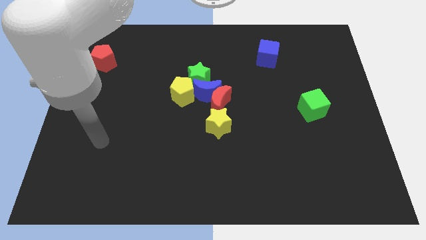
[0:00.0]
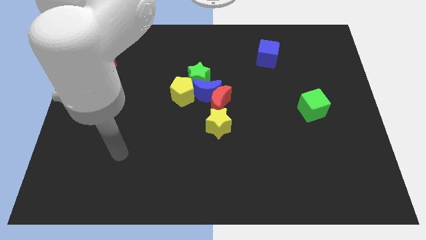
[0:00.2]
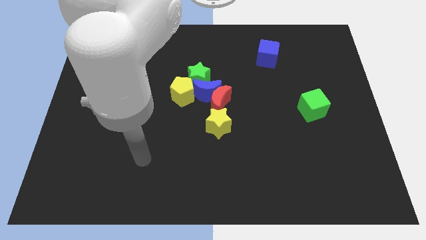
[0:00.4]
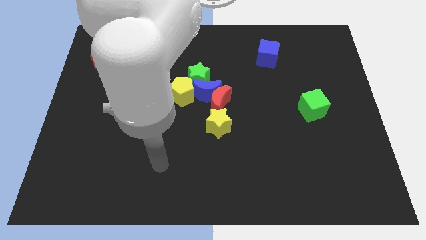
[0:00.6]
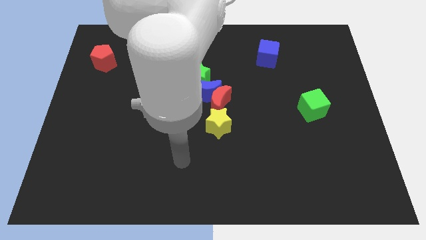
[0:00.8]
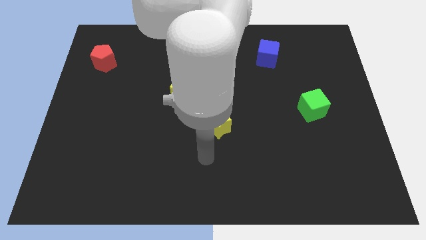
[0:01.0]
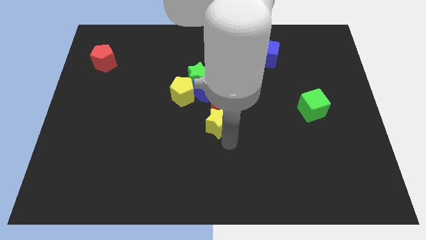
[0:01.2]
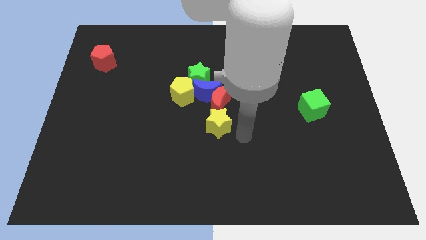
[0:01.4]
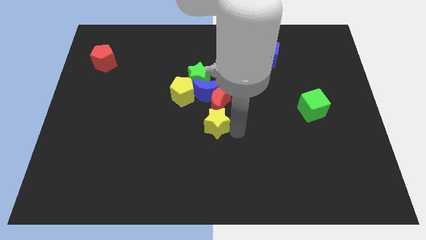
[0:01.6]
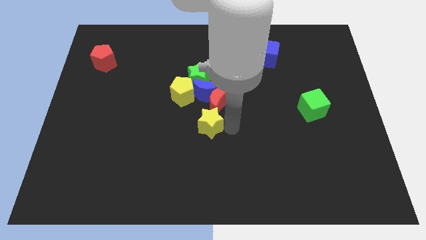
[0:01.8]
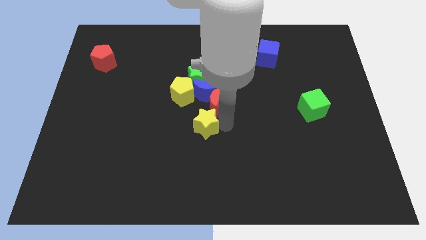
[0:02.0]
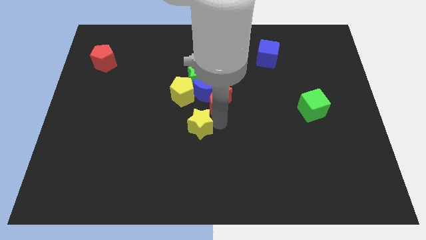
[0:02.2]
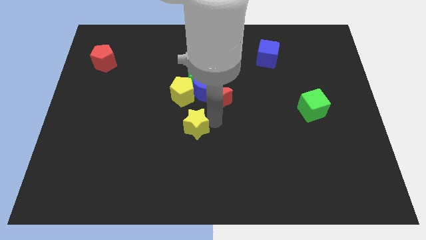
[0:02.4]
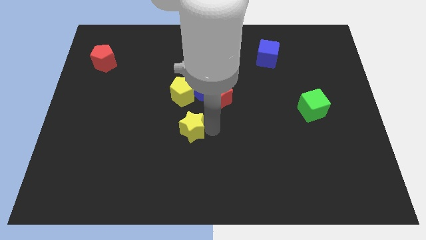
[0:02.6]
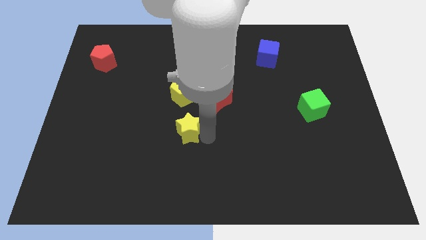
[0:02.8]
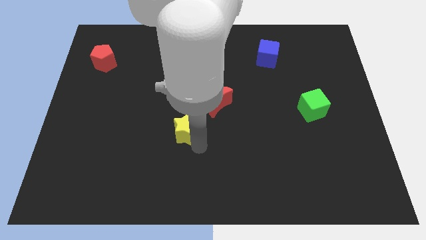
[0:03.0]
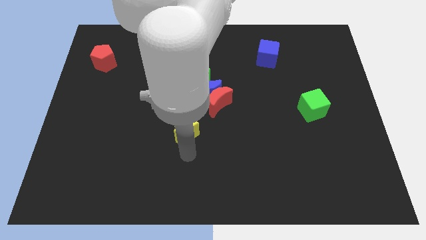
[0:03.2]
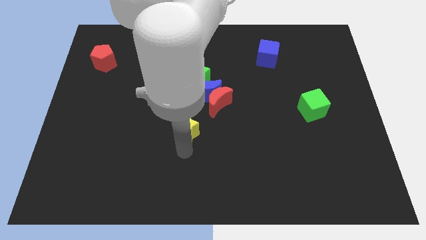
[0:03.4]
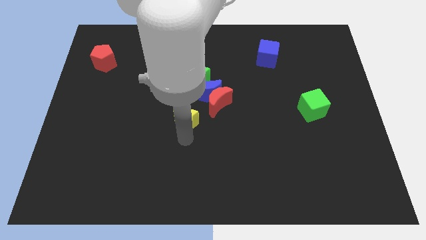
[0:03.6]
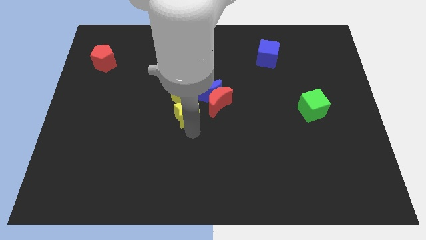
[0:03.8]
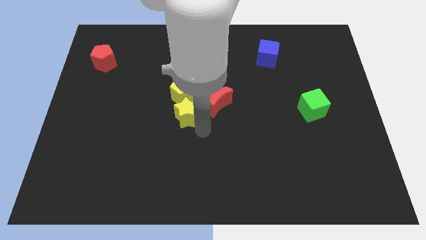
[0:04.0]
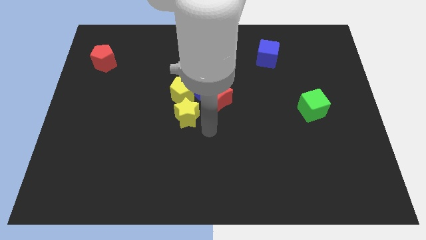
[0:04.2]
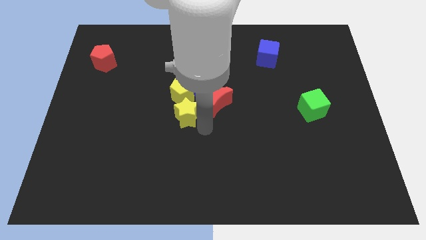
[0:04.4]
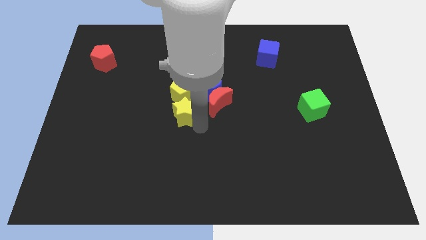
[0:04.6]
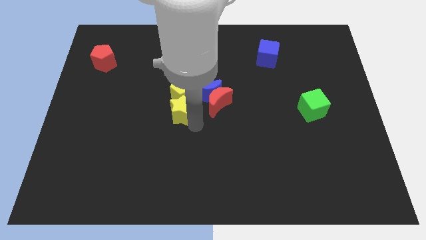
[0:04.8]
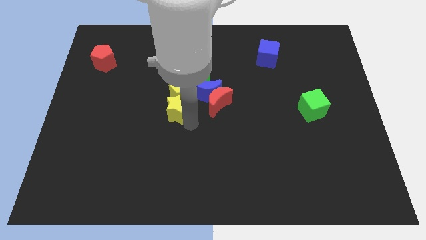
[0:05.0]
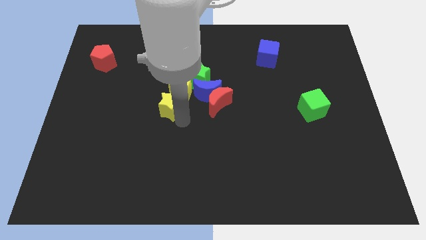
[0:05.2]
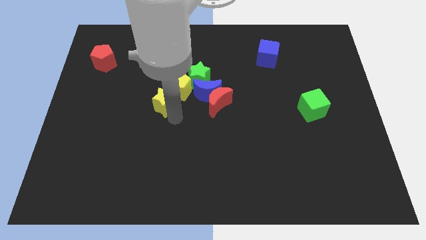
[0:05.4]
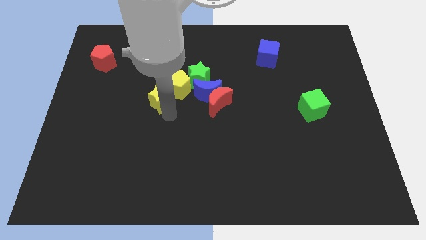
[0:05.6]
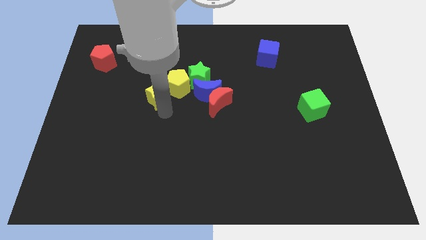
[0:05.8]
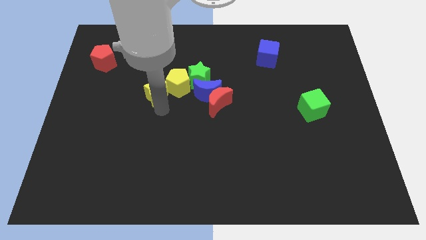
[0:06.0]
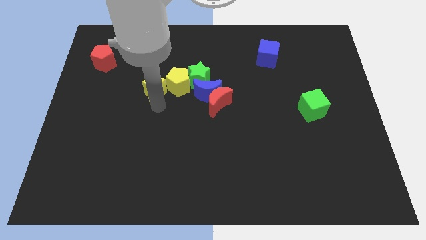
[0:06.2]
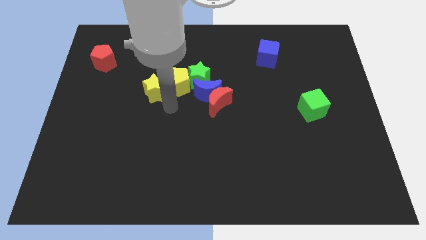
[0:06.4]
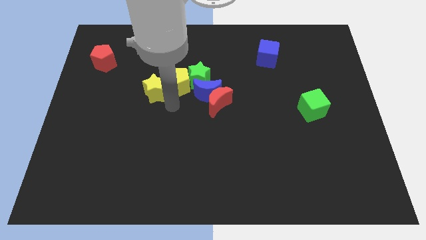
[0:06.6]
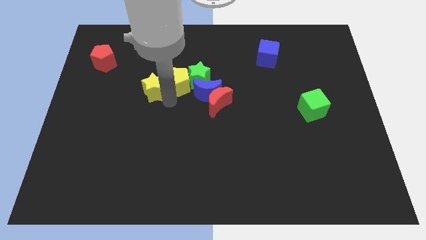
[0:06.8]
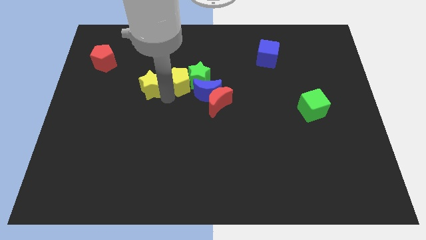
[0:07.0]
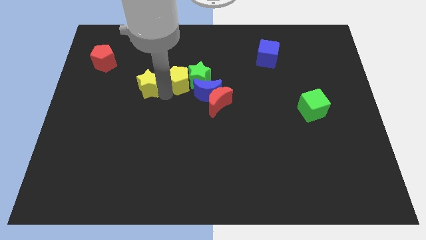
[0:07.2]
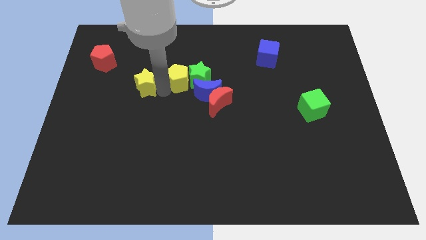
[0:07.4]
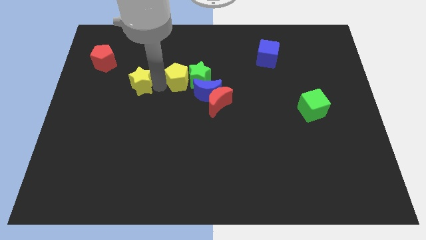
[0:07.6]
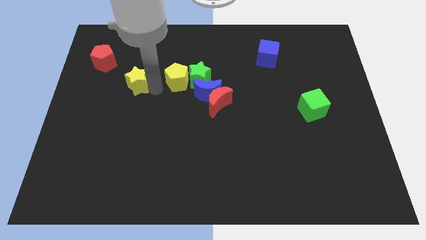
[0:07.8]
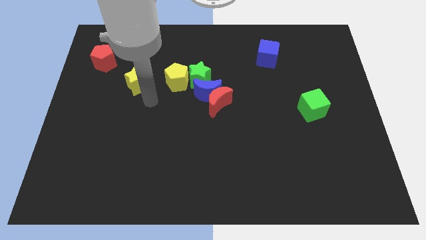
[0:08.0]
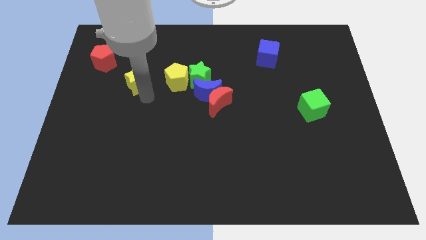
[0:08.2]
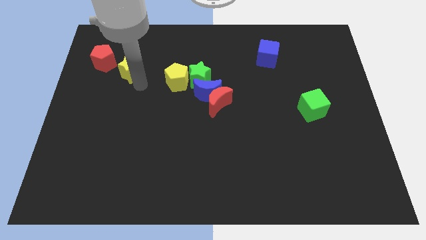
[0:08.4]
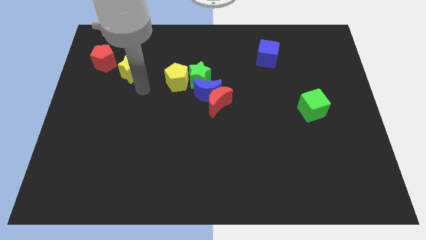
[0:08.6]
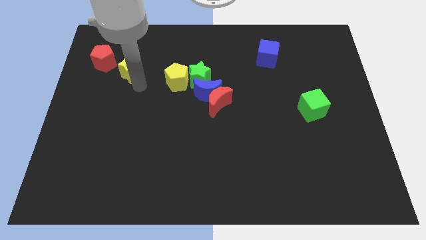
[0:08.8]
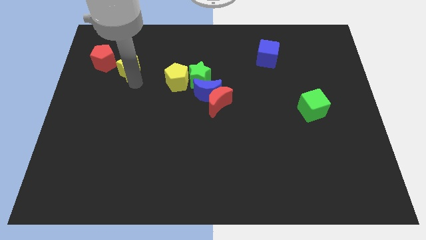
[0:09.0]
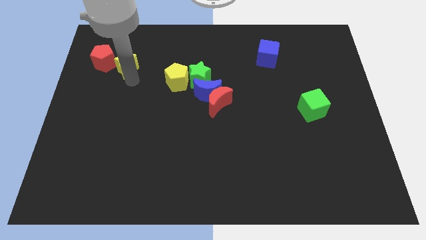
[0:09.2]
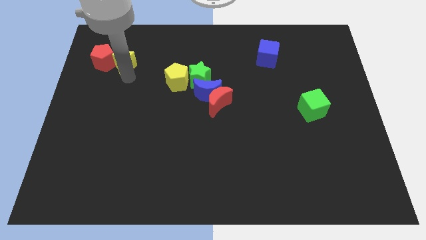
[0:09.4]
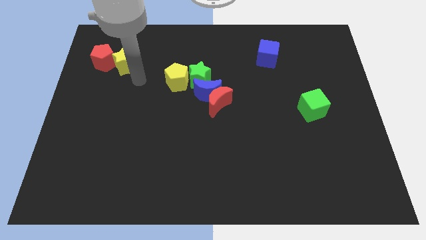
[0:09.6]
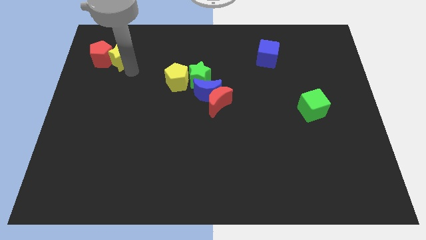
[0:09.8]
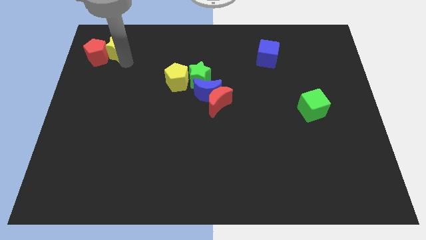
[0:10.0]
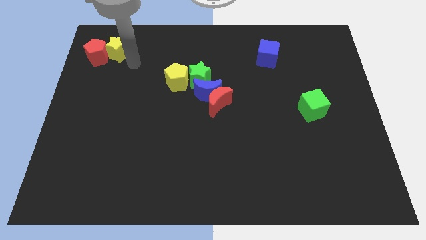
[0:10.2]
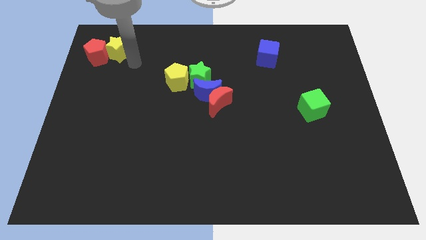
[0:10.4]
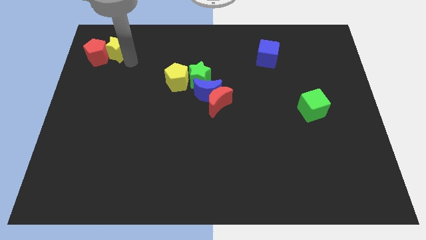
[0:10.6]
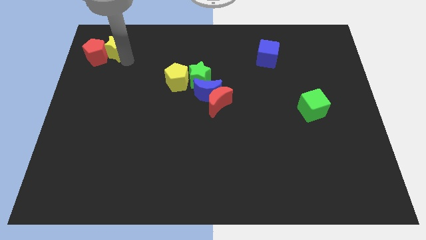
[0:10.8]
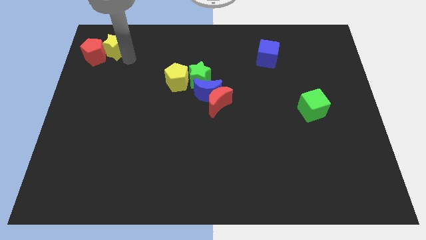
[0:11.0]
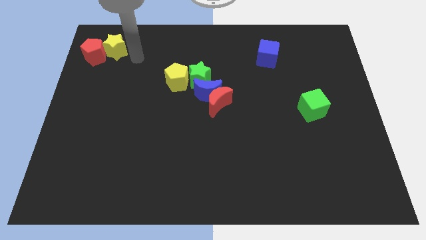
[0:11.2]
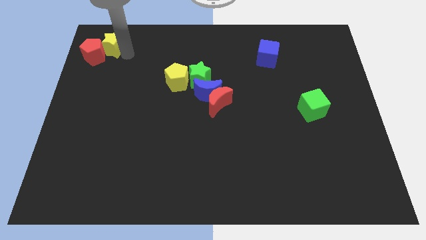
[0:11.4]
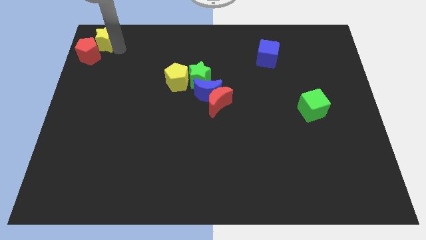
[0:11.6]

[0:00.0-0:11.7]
put the yellow star to the top left of the board

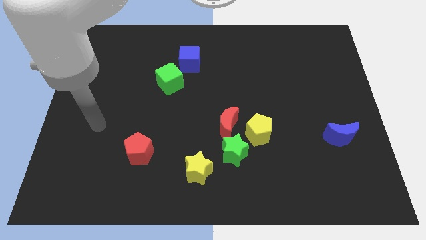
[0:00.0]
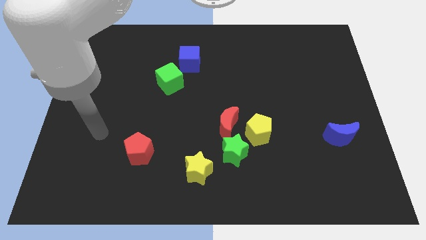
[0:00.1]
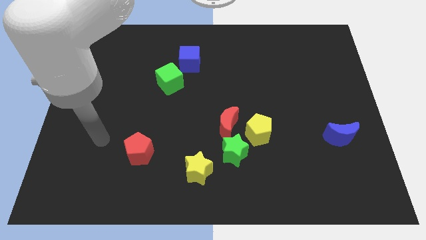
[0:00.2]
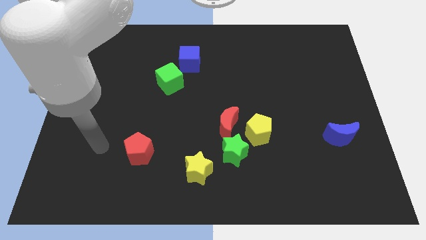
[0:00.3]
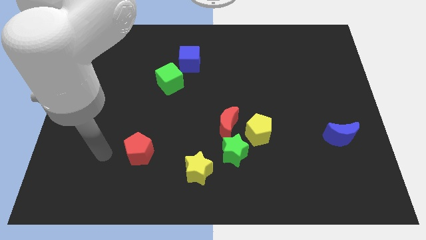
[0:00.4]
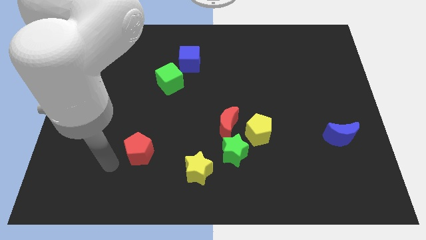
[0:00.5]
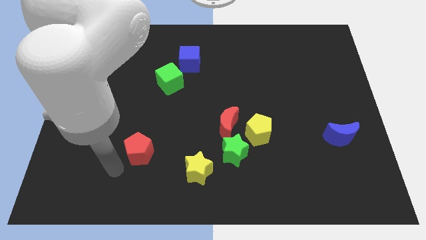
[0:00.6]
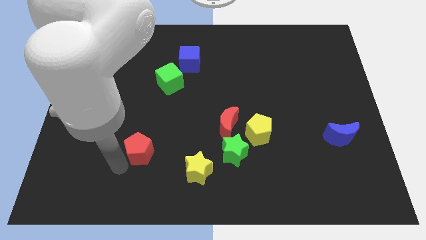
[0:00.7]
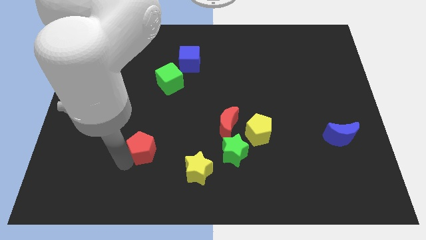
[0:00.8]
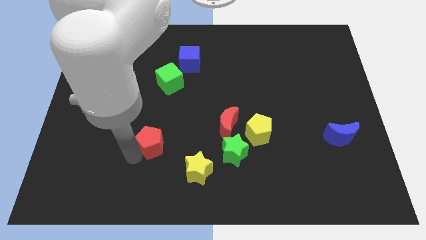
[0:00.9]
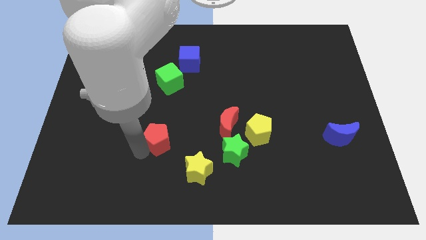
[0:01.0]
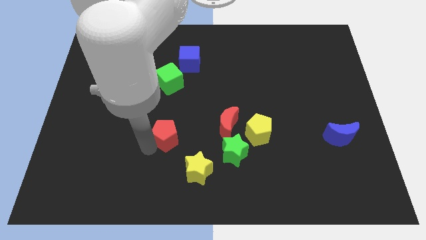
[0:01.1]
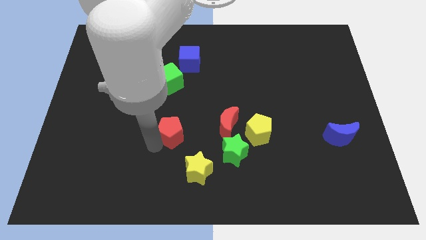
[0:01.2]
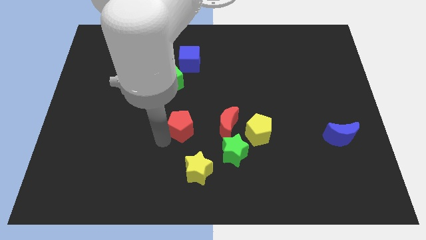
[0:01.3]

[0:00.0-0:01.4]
move the red pentagon to the middle of the board
